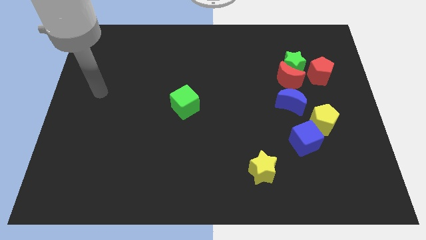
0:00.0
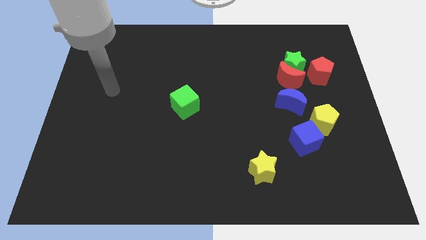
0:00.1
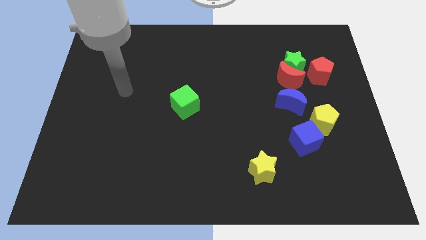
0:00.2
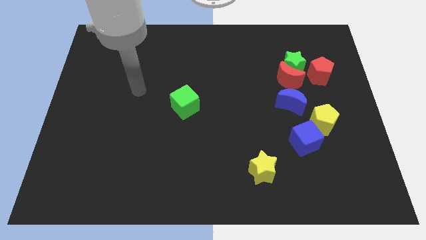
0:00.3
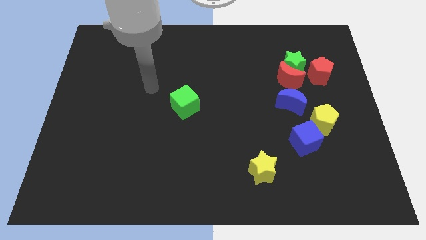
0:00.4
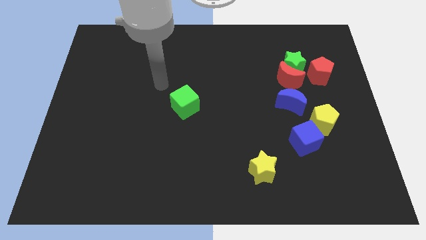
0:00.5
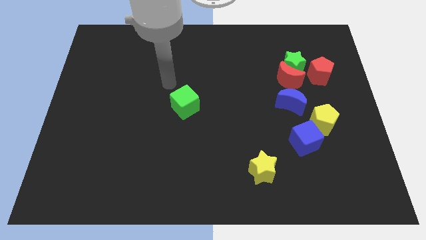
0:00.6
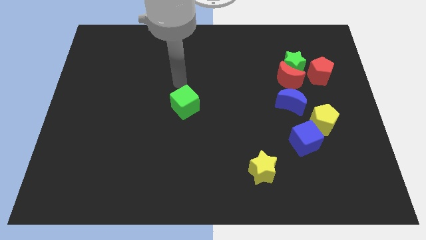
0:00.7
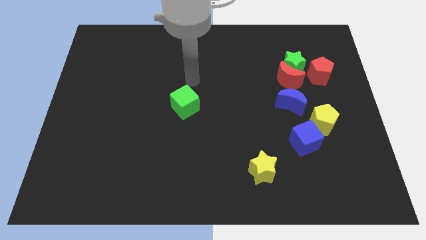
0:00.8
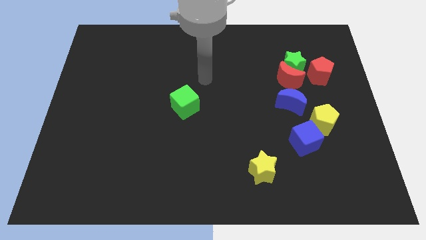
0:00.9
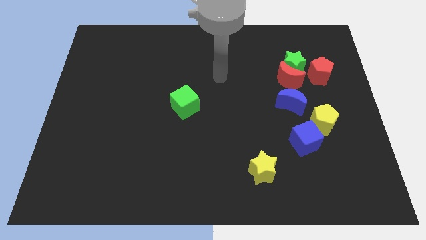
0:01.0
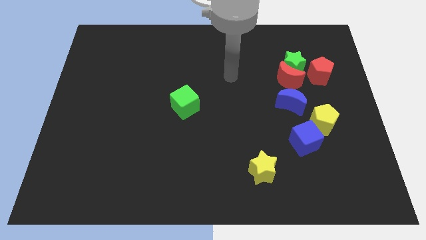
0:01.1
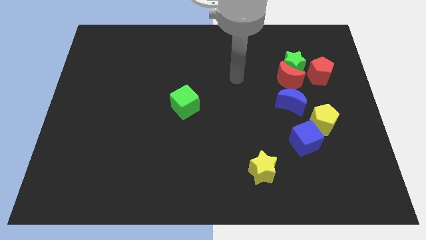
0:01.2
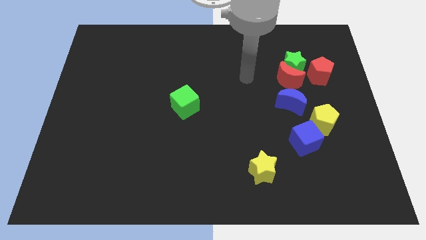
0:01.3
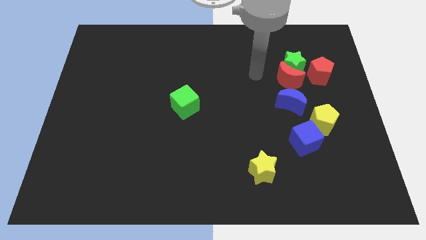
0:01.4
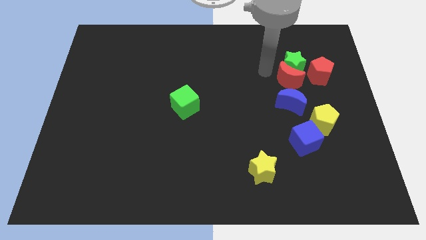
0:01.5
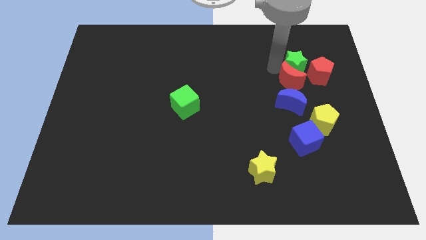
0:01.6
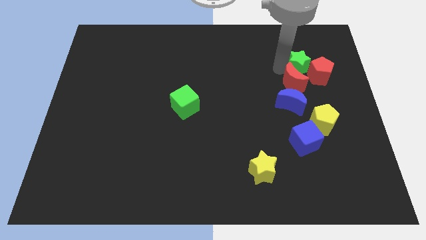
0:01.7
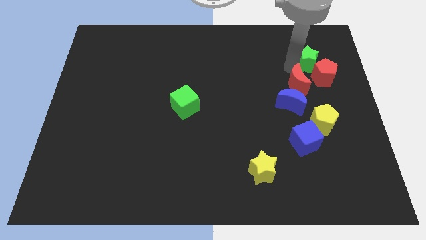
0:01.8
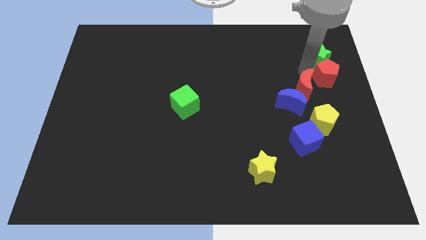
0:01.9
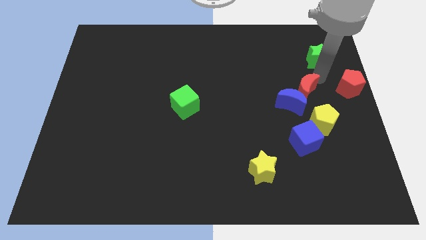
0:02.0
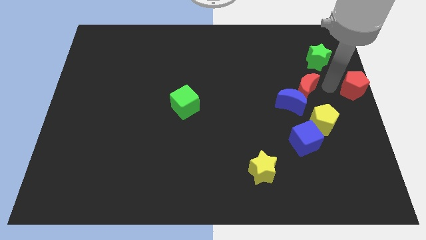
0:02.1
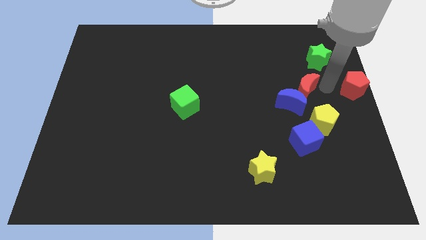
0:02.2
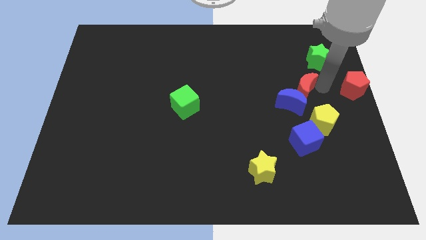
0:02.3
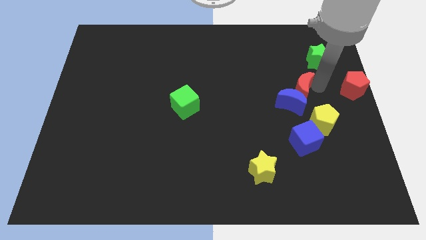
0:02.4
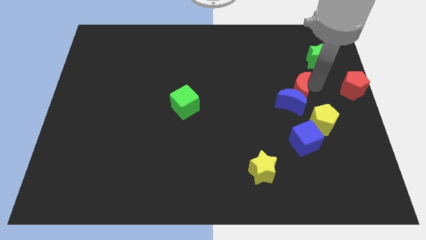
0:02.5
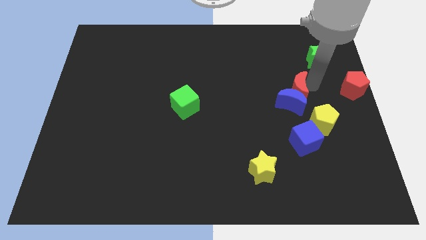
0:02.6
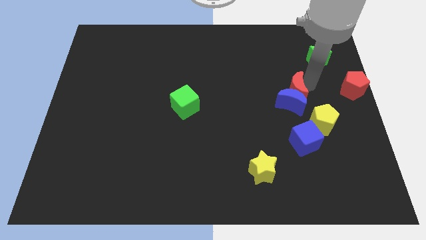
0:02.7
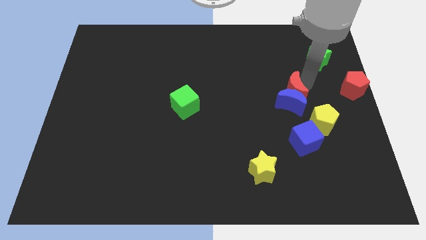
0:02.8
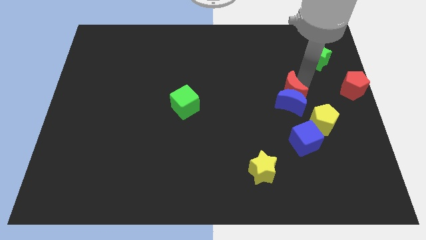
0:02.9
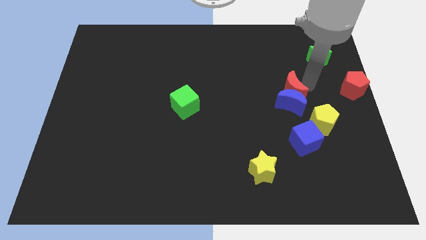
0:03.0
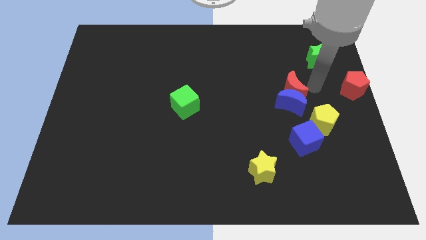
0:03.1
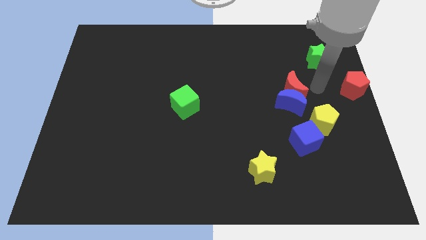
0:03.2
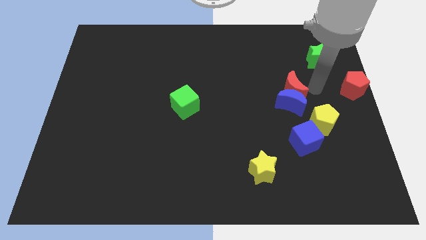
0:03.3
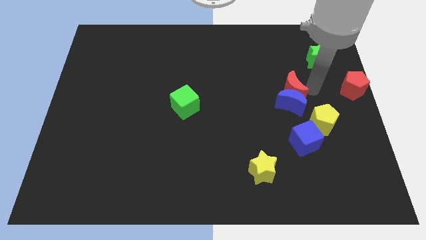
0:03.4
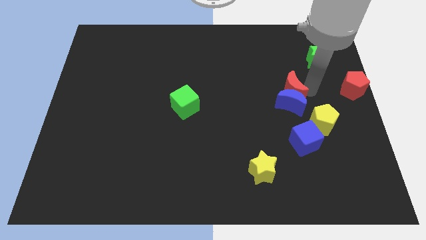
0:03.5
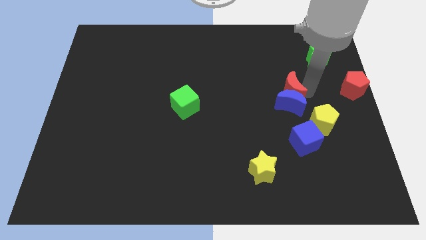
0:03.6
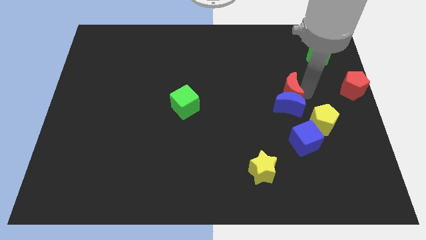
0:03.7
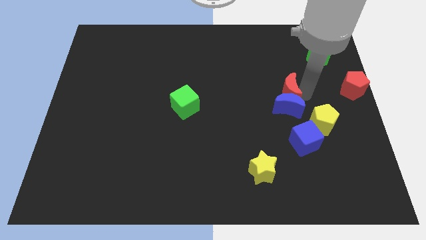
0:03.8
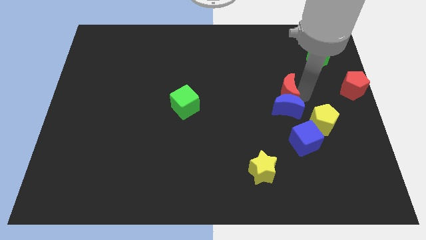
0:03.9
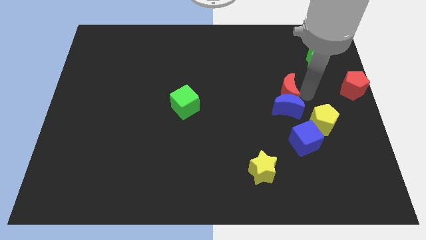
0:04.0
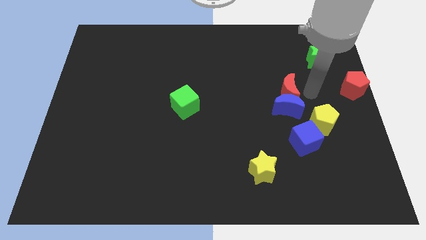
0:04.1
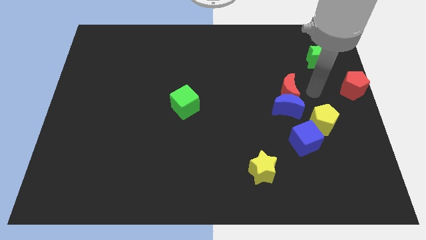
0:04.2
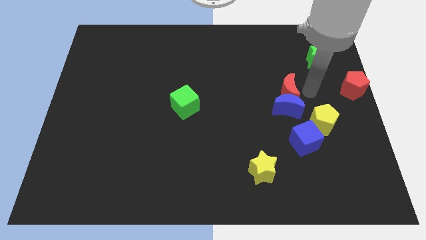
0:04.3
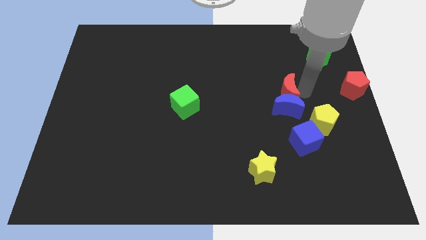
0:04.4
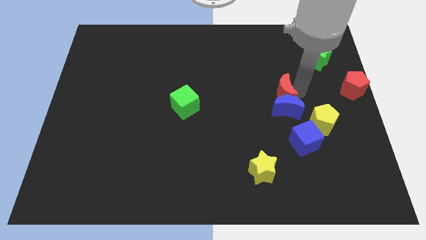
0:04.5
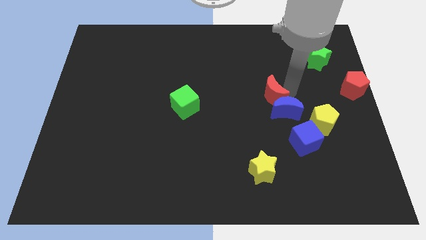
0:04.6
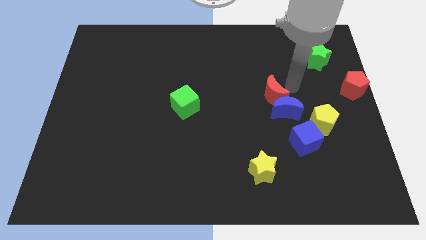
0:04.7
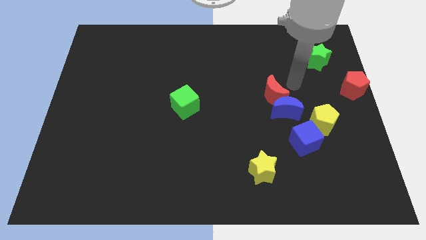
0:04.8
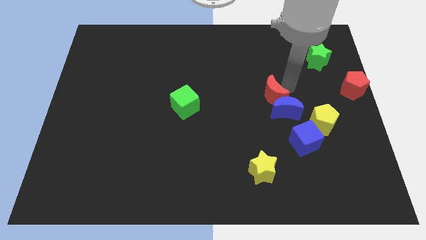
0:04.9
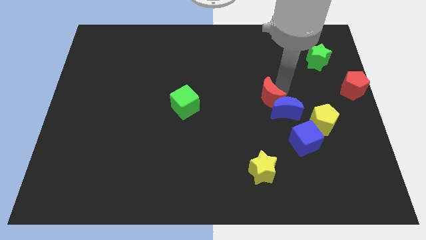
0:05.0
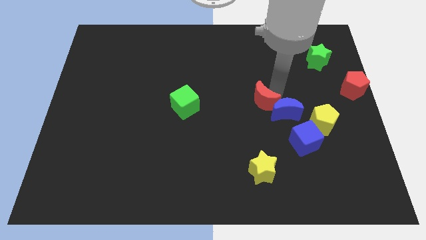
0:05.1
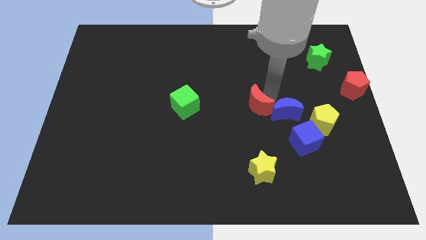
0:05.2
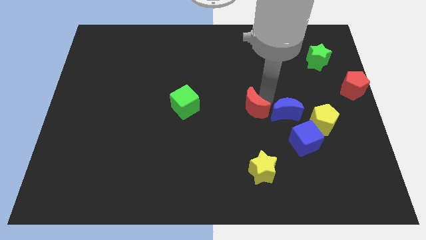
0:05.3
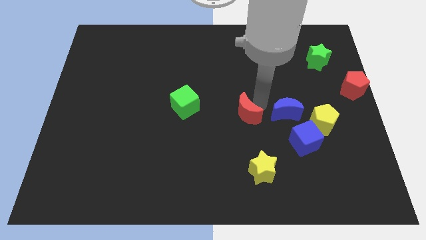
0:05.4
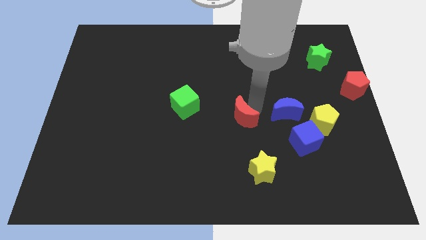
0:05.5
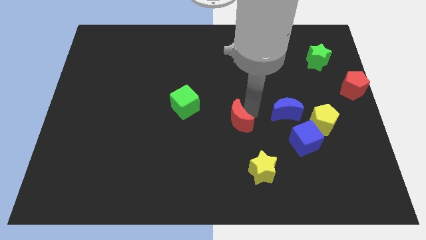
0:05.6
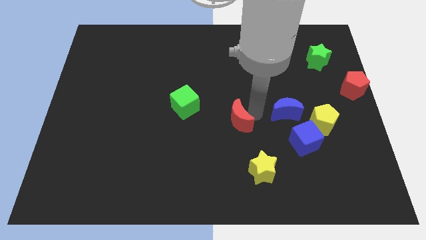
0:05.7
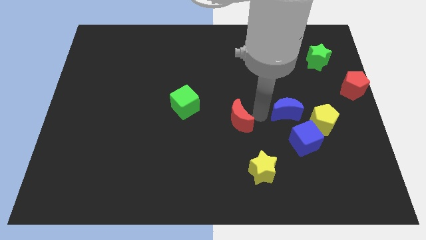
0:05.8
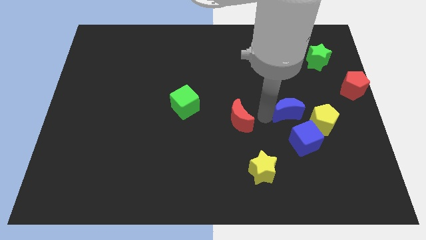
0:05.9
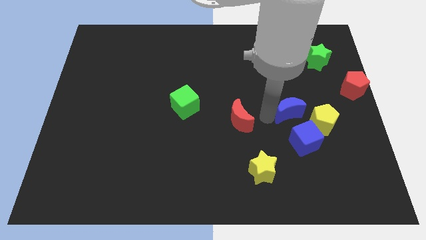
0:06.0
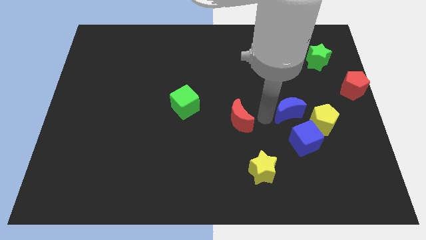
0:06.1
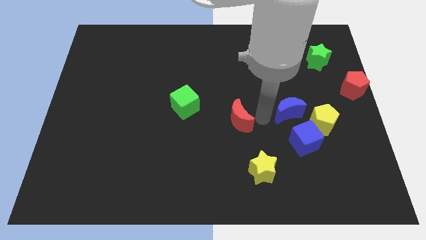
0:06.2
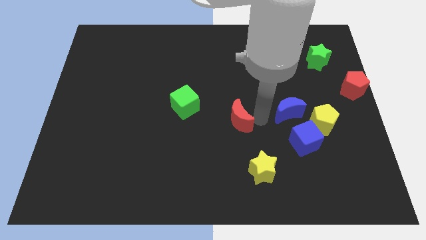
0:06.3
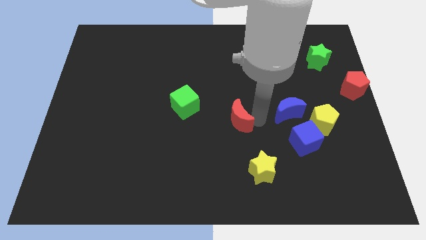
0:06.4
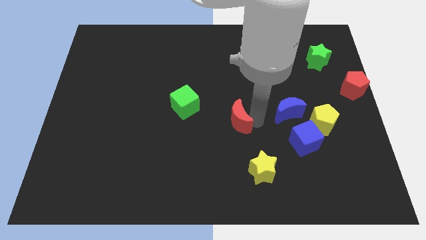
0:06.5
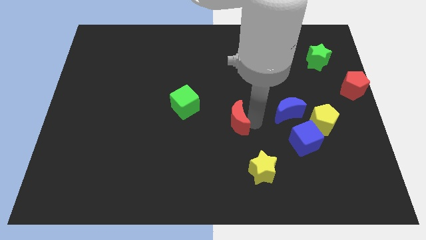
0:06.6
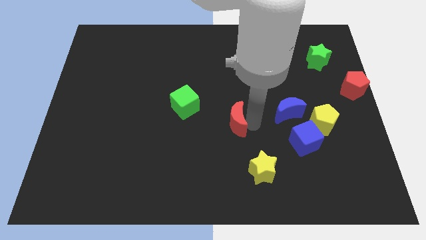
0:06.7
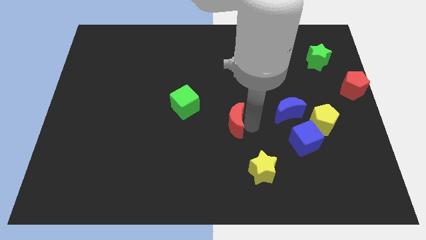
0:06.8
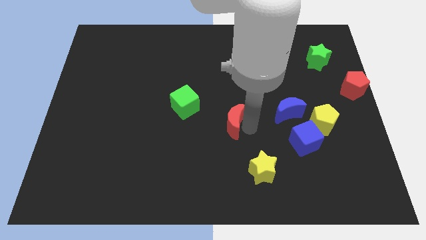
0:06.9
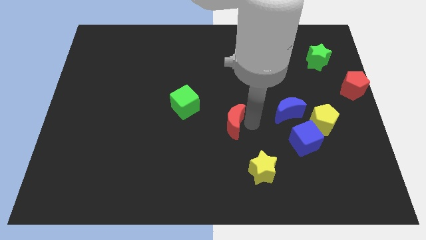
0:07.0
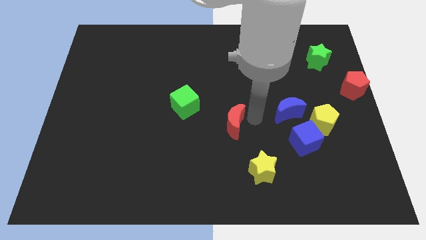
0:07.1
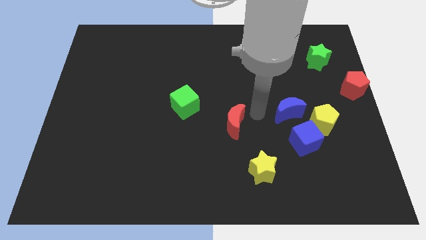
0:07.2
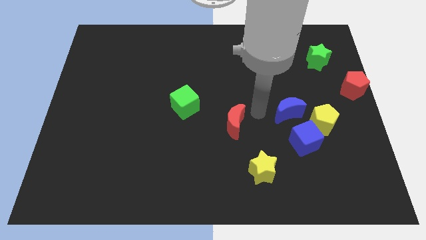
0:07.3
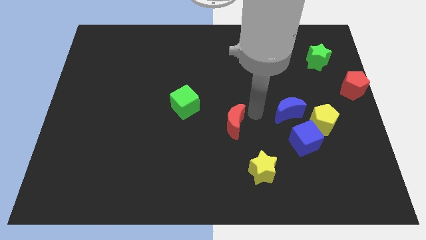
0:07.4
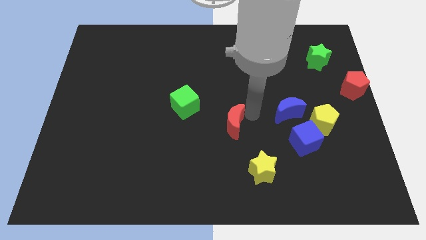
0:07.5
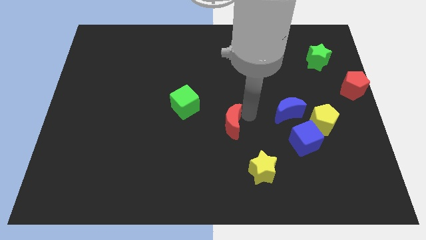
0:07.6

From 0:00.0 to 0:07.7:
push the red moon diagonally downwards and left

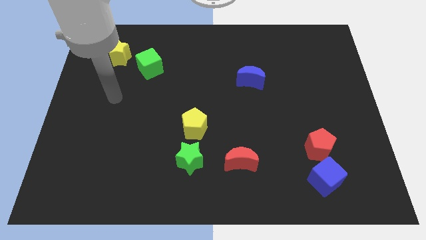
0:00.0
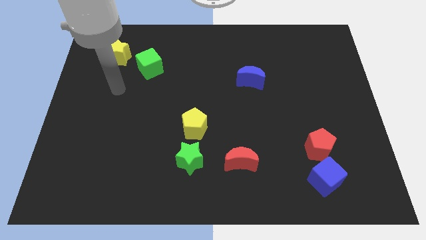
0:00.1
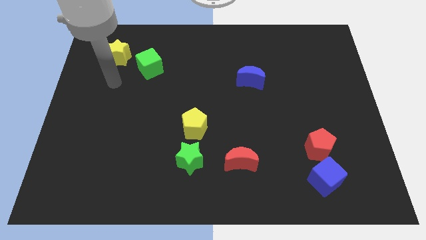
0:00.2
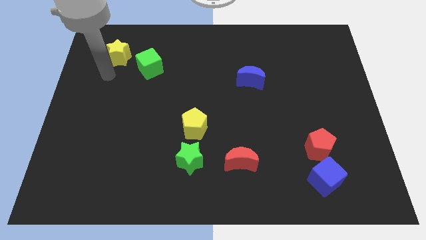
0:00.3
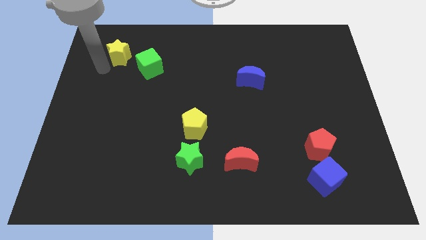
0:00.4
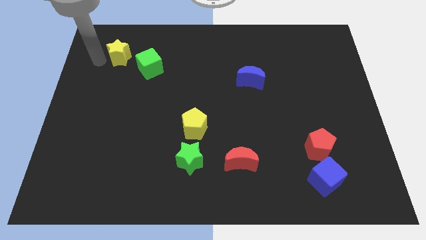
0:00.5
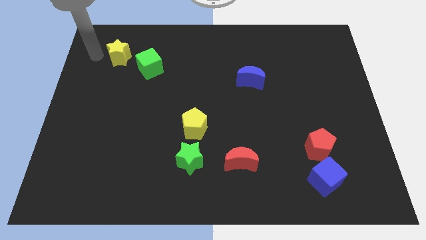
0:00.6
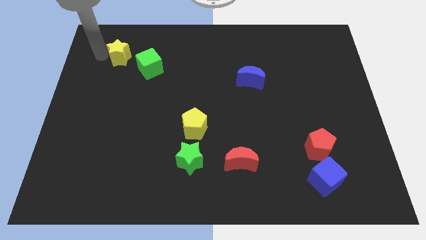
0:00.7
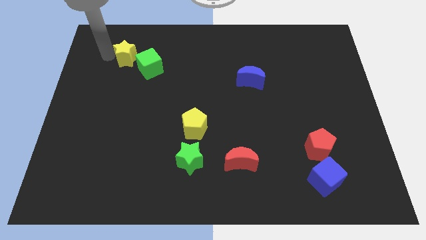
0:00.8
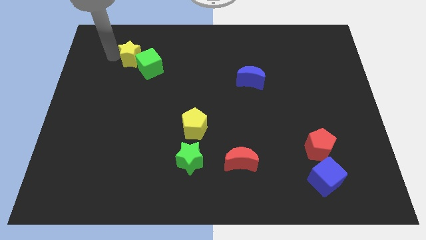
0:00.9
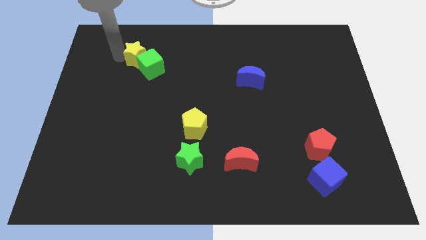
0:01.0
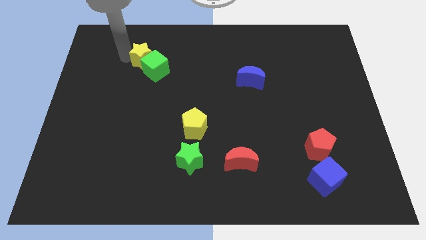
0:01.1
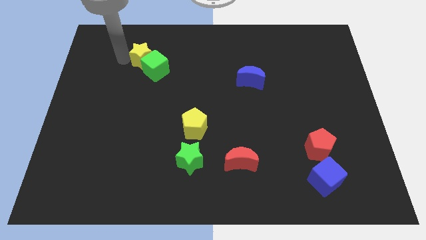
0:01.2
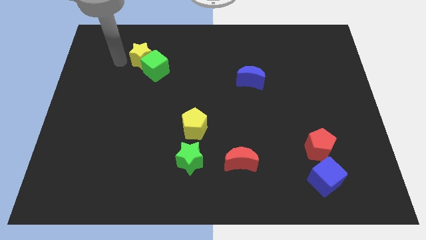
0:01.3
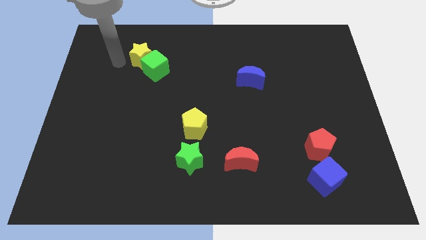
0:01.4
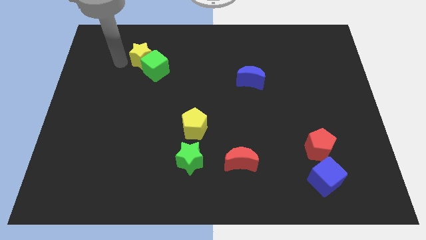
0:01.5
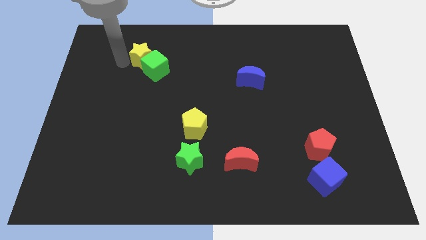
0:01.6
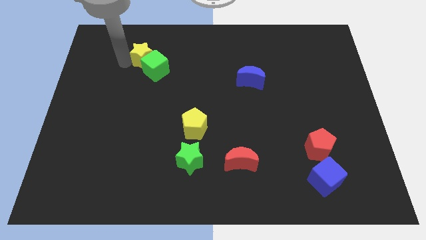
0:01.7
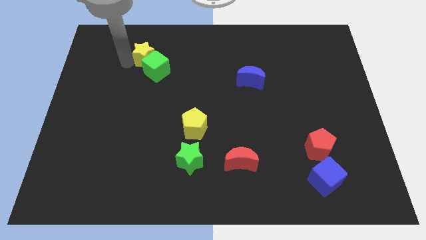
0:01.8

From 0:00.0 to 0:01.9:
slightly slide the yellow star right
